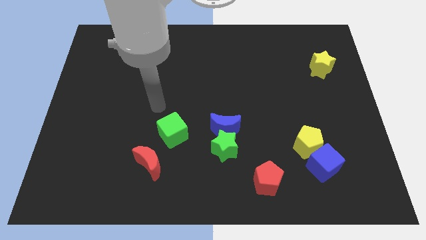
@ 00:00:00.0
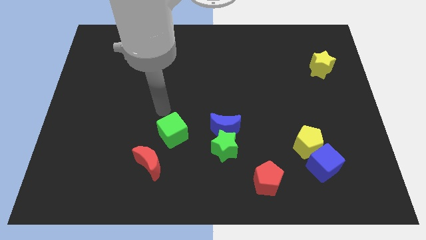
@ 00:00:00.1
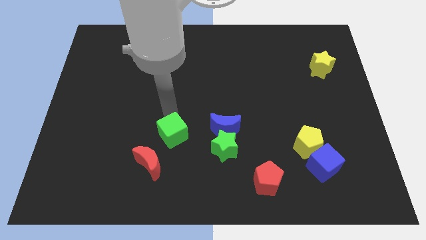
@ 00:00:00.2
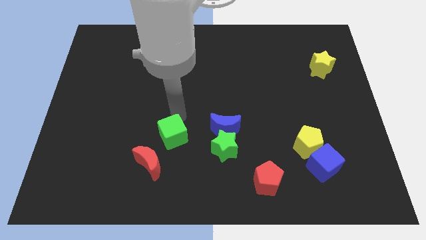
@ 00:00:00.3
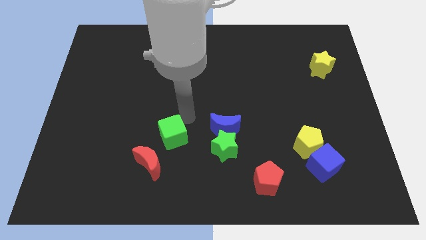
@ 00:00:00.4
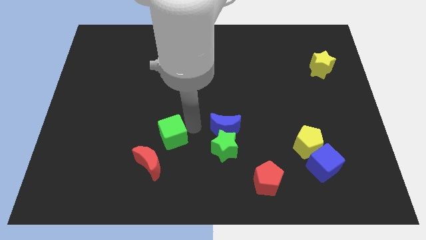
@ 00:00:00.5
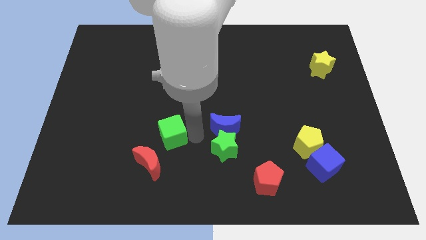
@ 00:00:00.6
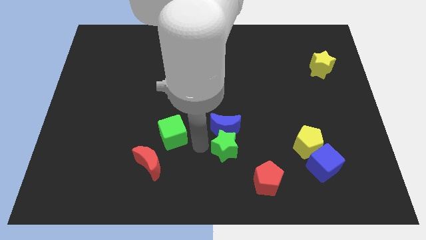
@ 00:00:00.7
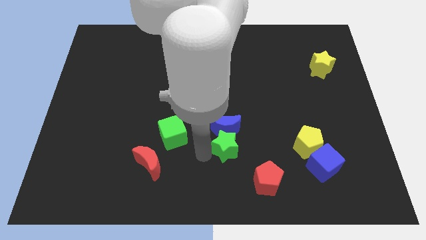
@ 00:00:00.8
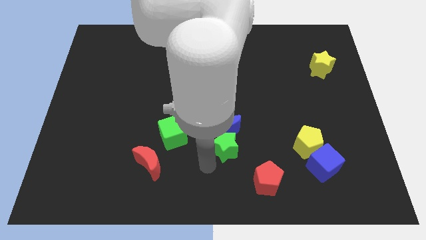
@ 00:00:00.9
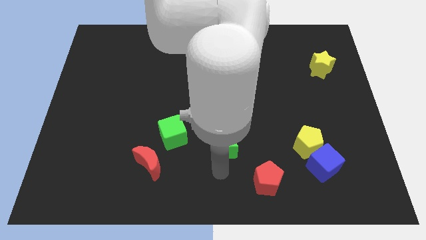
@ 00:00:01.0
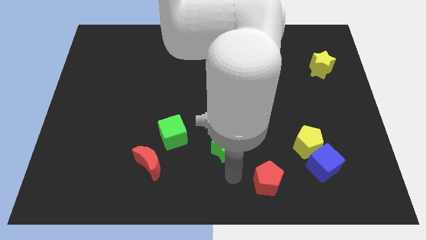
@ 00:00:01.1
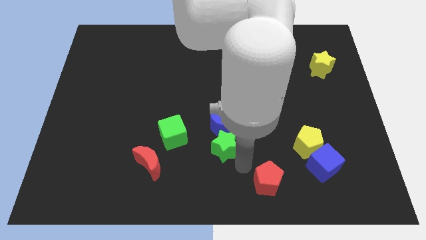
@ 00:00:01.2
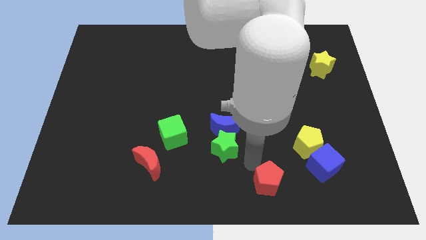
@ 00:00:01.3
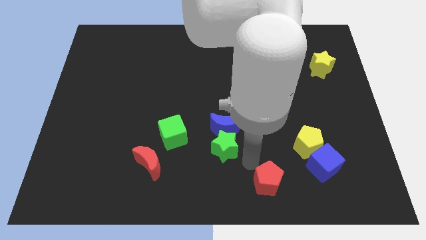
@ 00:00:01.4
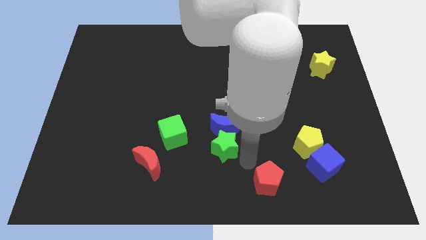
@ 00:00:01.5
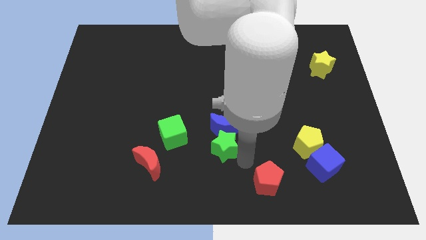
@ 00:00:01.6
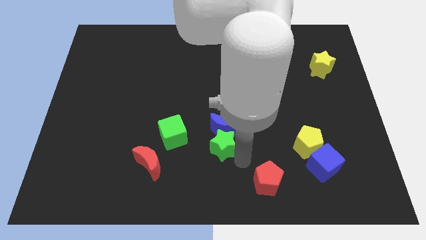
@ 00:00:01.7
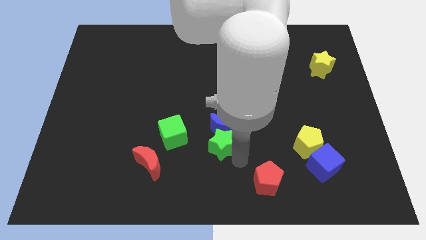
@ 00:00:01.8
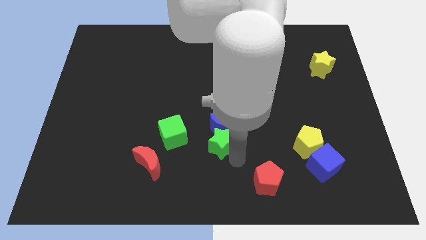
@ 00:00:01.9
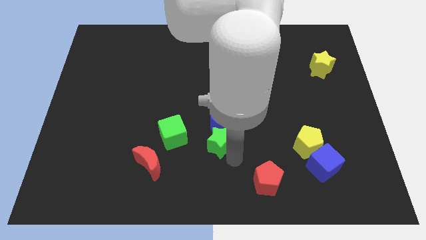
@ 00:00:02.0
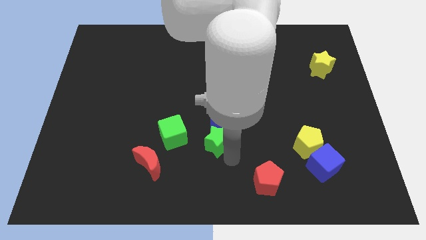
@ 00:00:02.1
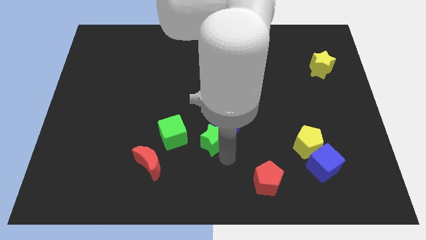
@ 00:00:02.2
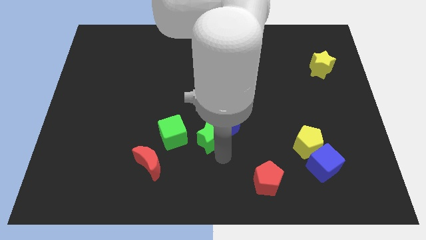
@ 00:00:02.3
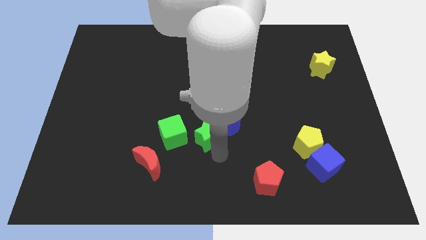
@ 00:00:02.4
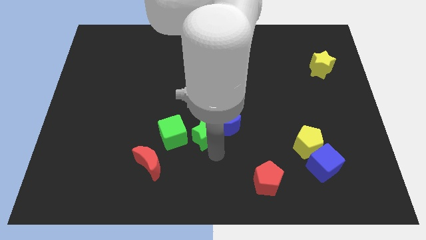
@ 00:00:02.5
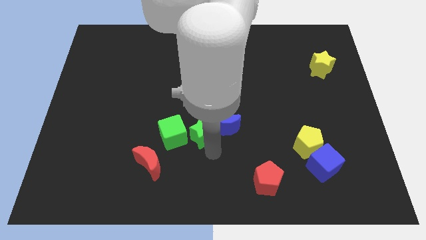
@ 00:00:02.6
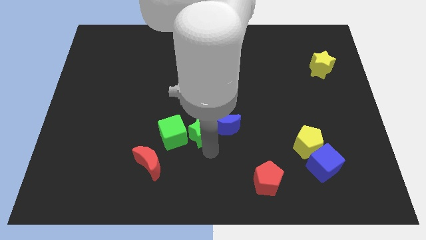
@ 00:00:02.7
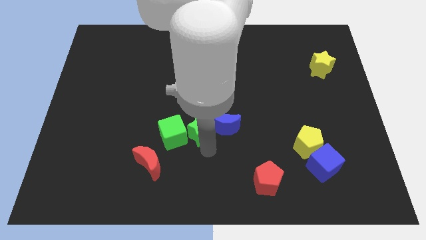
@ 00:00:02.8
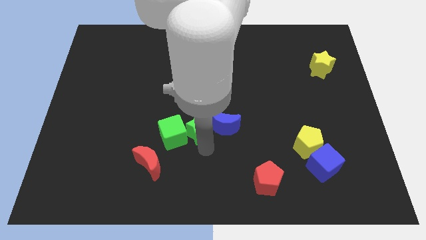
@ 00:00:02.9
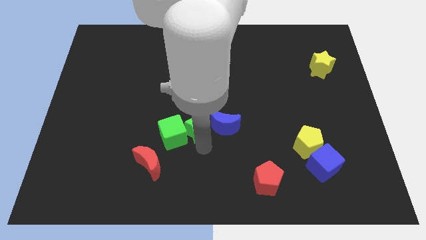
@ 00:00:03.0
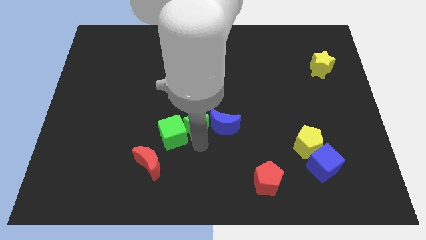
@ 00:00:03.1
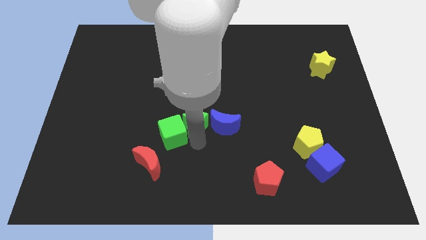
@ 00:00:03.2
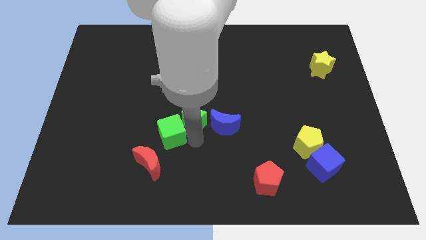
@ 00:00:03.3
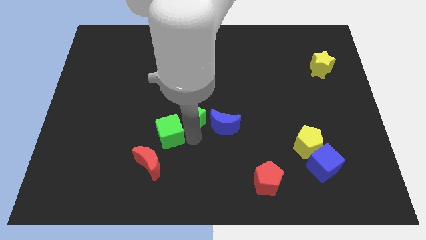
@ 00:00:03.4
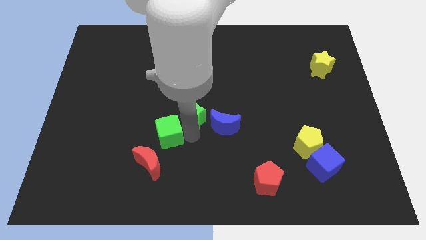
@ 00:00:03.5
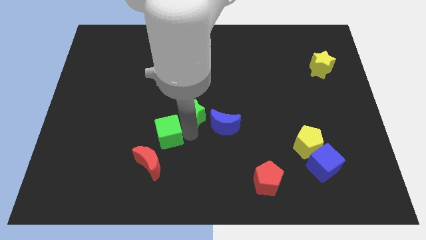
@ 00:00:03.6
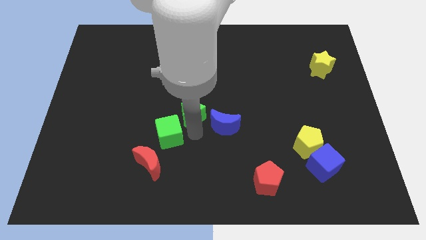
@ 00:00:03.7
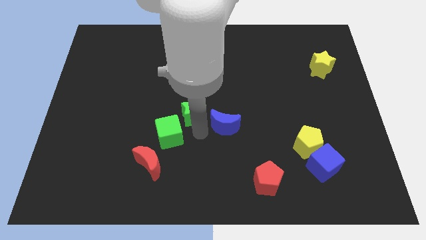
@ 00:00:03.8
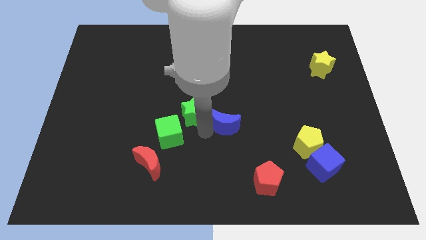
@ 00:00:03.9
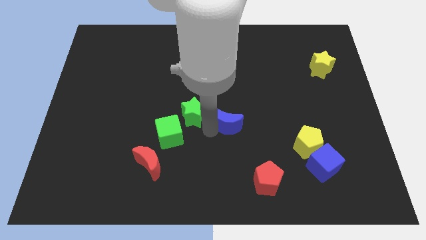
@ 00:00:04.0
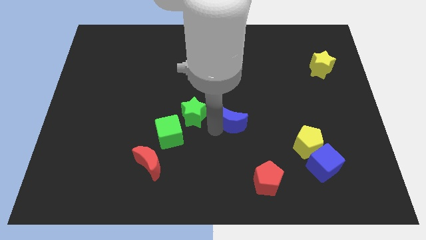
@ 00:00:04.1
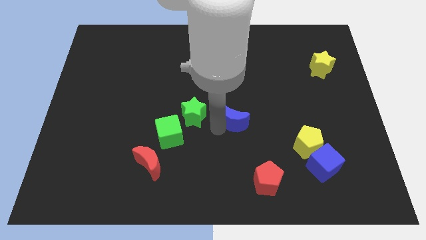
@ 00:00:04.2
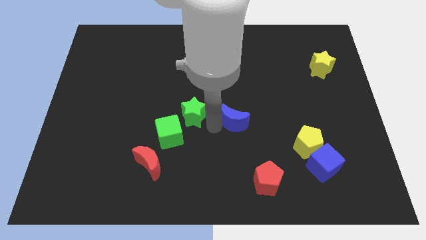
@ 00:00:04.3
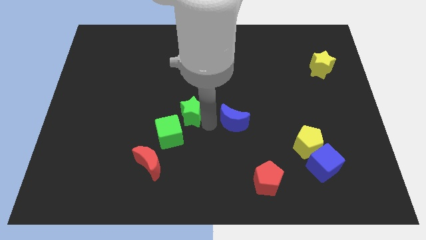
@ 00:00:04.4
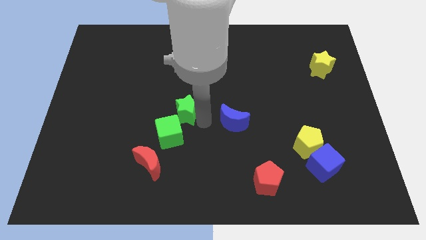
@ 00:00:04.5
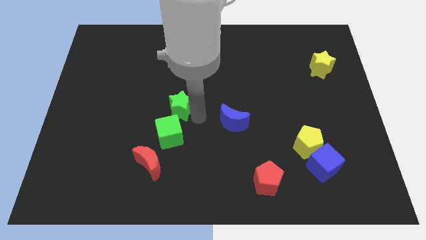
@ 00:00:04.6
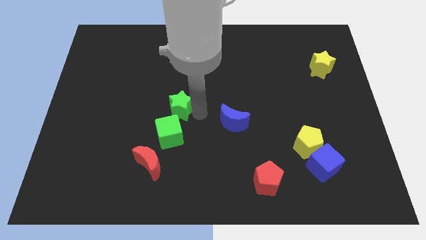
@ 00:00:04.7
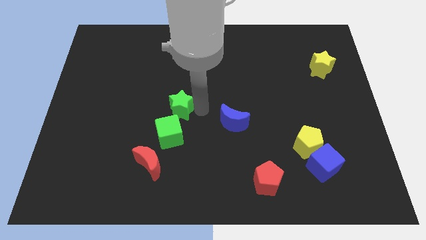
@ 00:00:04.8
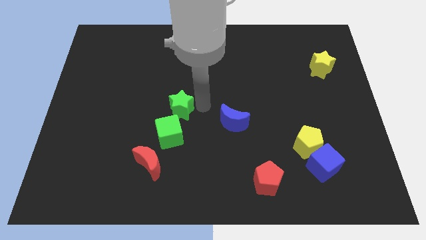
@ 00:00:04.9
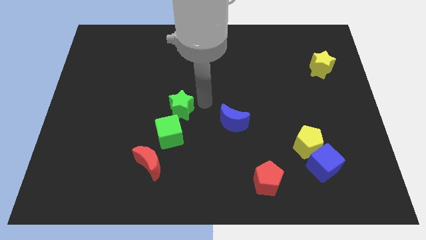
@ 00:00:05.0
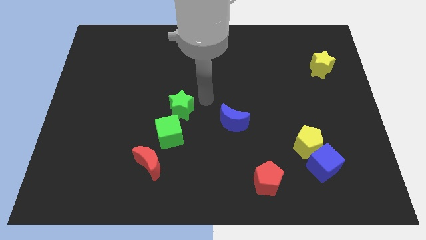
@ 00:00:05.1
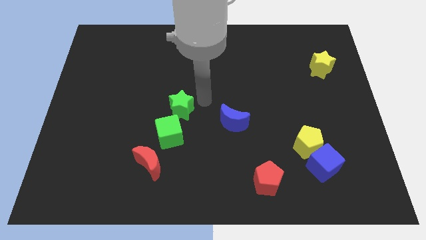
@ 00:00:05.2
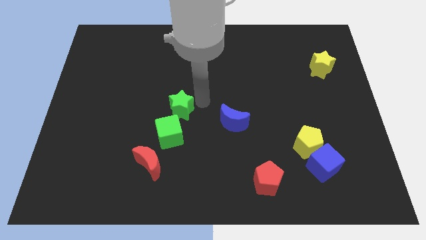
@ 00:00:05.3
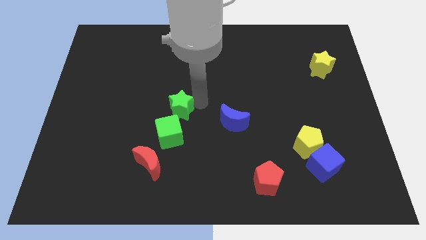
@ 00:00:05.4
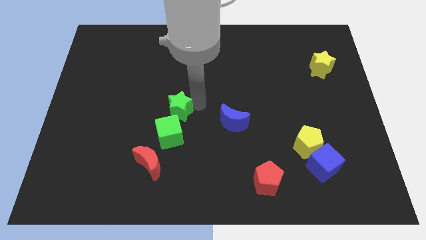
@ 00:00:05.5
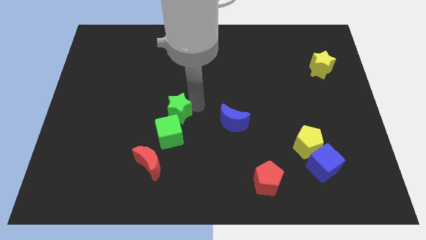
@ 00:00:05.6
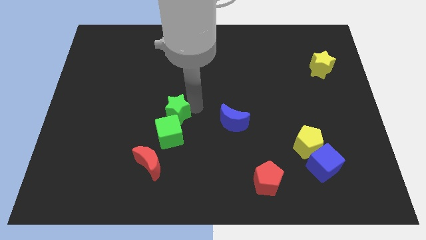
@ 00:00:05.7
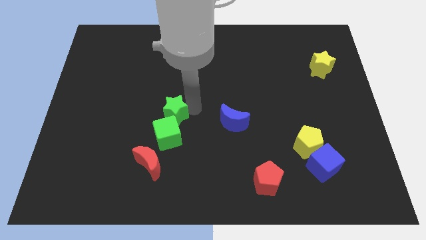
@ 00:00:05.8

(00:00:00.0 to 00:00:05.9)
slightly push the green star to the left

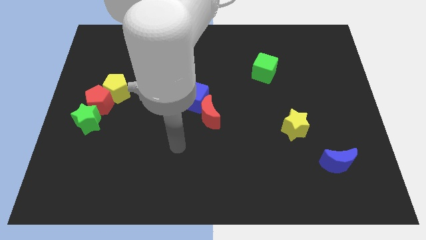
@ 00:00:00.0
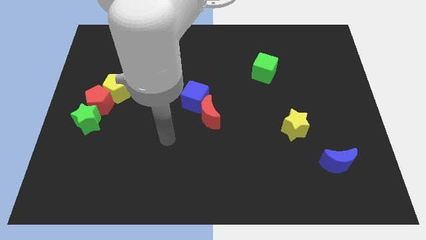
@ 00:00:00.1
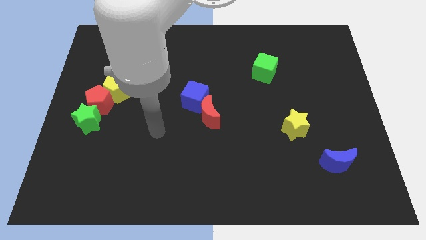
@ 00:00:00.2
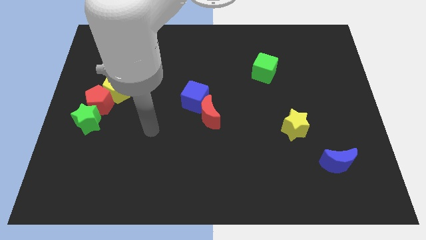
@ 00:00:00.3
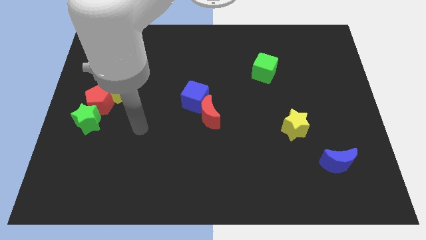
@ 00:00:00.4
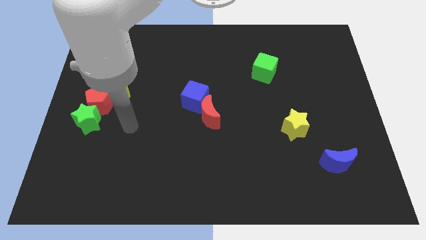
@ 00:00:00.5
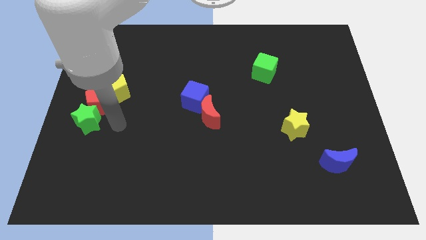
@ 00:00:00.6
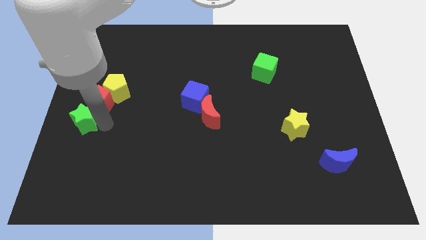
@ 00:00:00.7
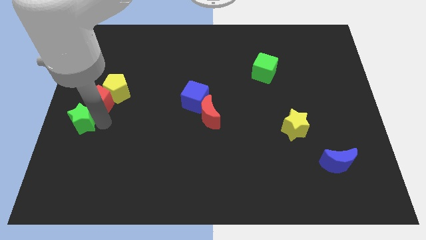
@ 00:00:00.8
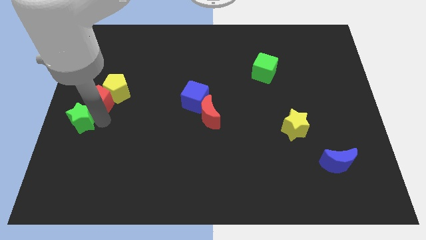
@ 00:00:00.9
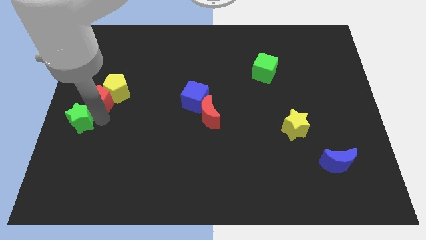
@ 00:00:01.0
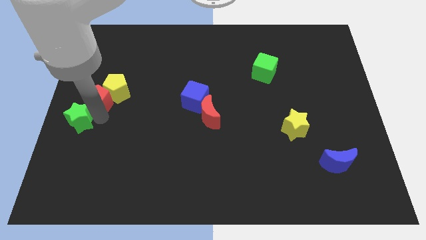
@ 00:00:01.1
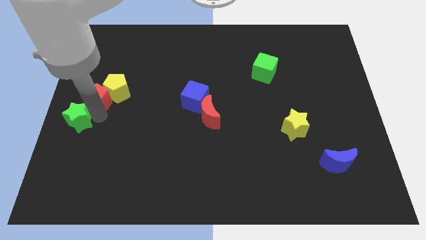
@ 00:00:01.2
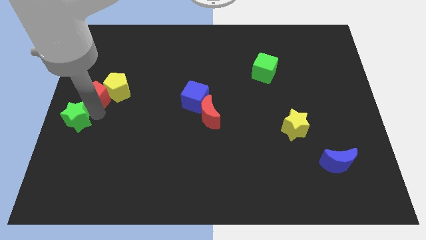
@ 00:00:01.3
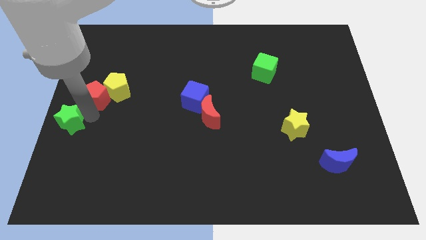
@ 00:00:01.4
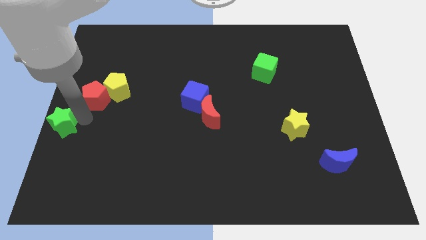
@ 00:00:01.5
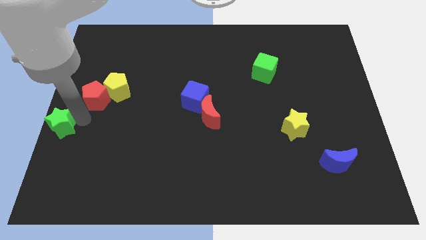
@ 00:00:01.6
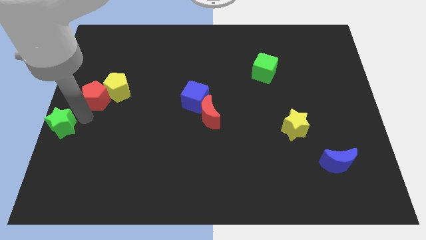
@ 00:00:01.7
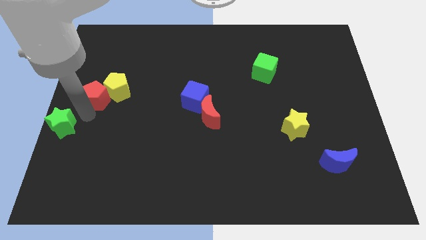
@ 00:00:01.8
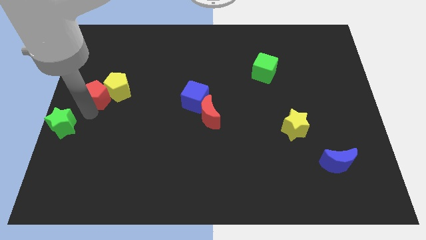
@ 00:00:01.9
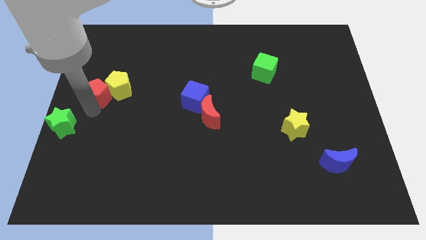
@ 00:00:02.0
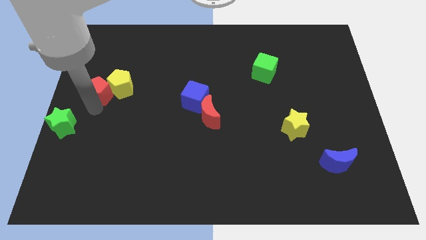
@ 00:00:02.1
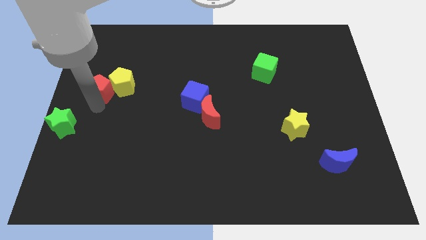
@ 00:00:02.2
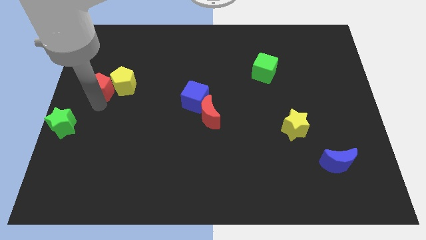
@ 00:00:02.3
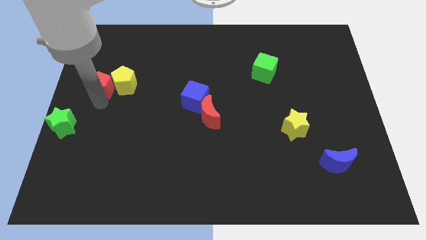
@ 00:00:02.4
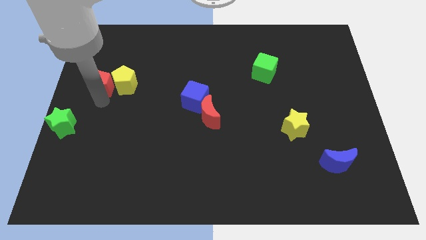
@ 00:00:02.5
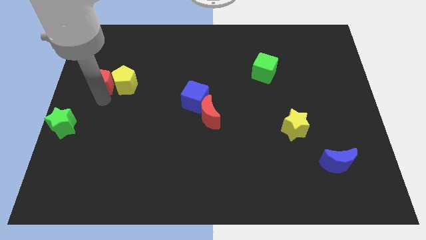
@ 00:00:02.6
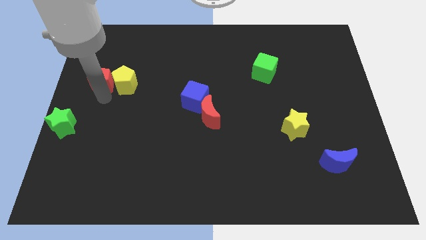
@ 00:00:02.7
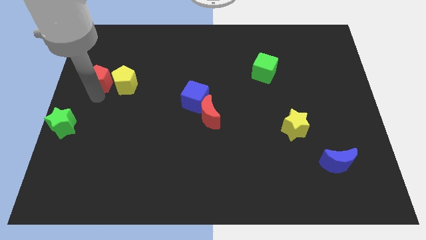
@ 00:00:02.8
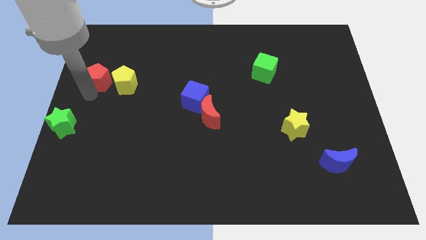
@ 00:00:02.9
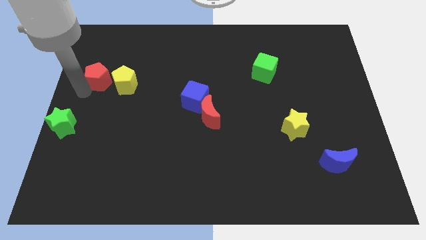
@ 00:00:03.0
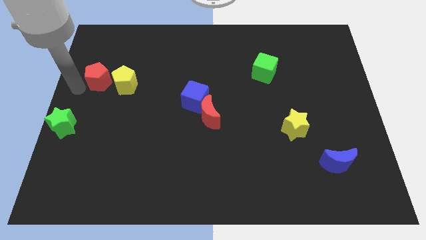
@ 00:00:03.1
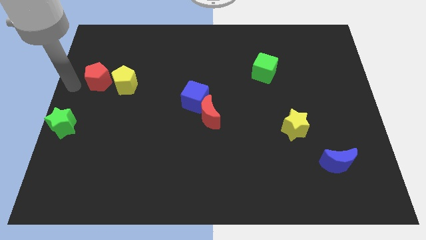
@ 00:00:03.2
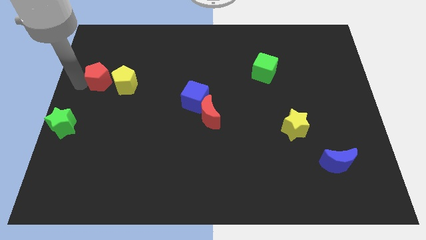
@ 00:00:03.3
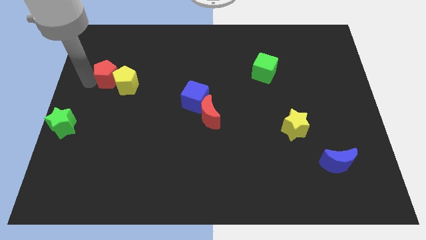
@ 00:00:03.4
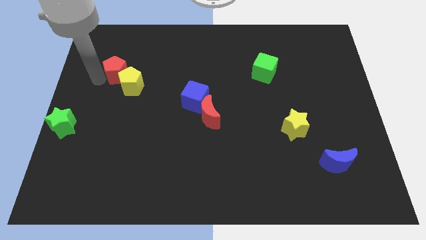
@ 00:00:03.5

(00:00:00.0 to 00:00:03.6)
slightly push the red pentagon upwards and then right
